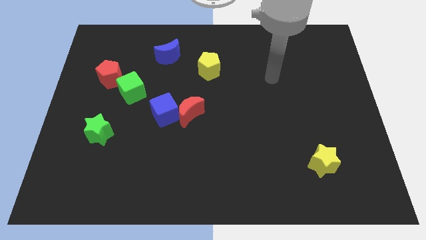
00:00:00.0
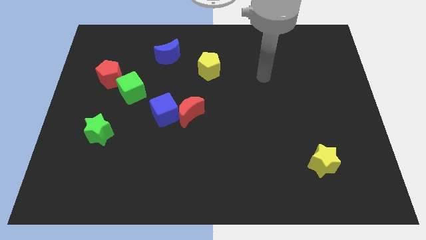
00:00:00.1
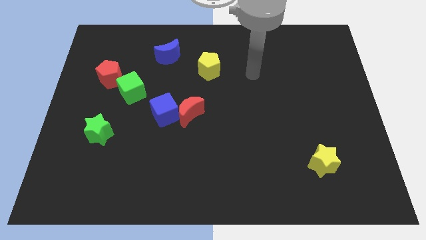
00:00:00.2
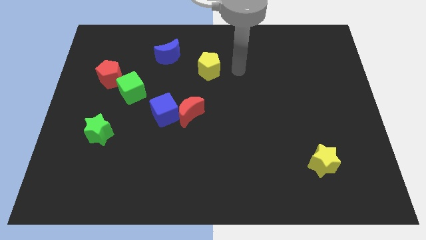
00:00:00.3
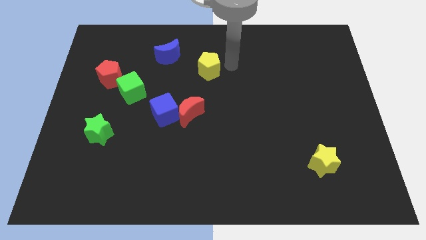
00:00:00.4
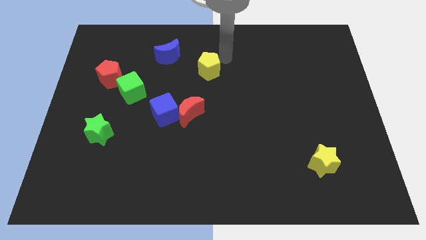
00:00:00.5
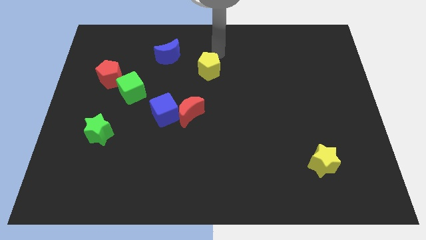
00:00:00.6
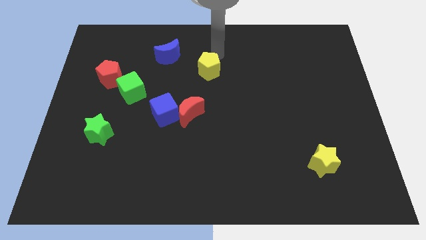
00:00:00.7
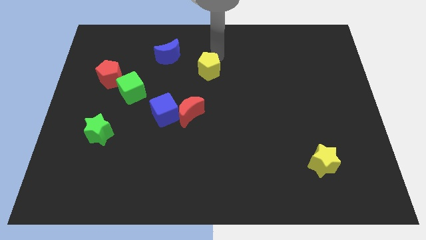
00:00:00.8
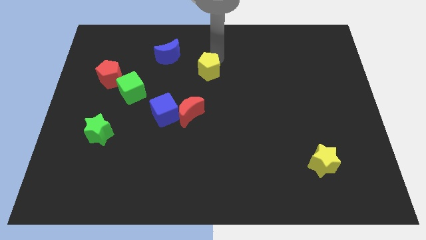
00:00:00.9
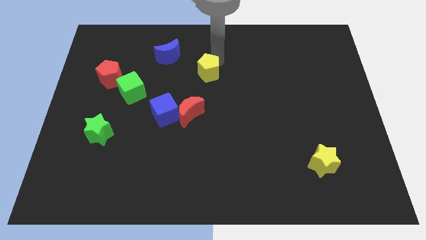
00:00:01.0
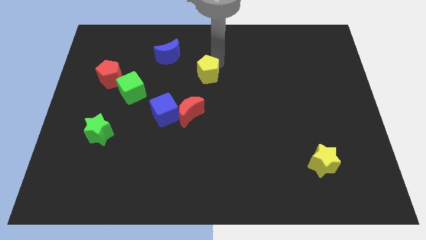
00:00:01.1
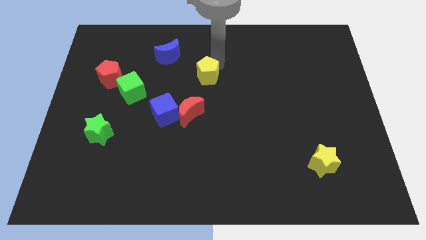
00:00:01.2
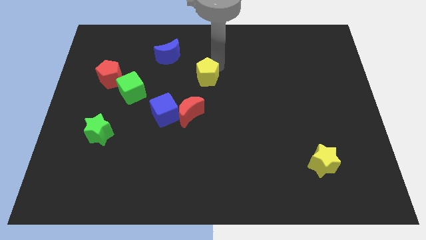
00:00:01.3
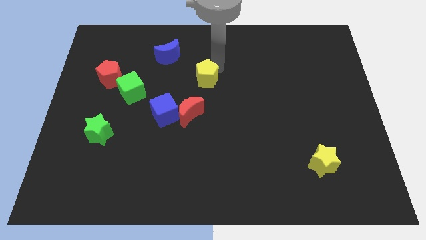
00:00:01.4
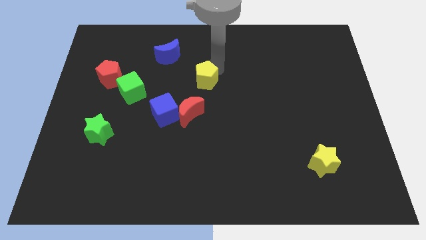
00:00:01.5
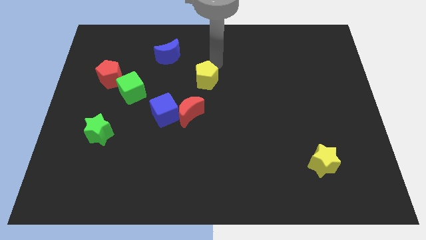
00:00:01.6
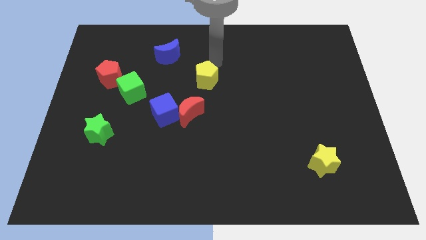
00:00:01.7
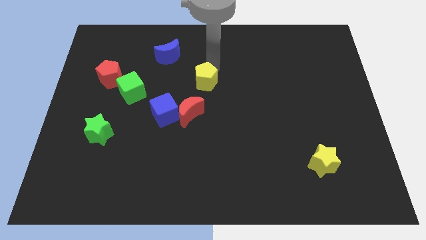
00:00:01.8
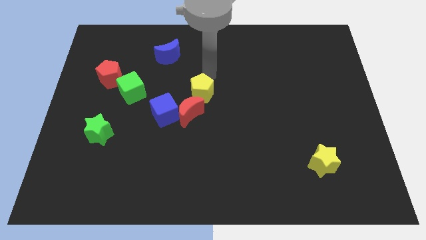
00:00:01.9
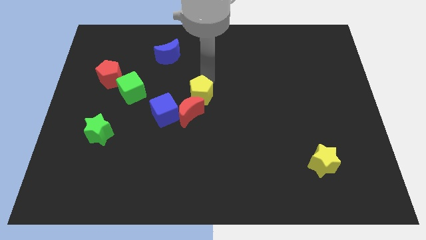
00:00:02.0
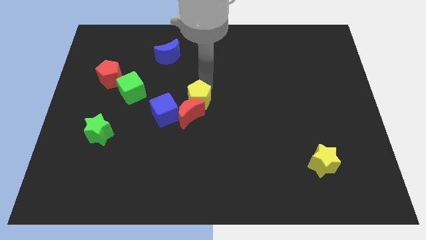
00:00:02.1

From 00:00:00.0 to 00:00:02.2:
move the yellow pentagon to the red moon

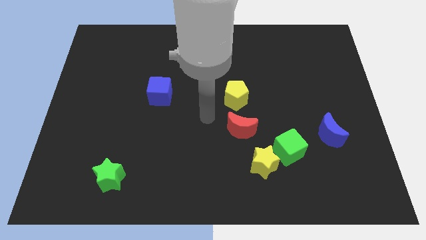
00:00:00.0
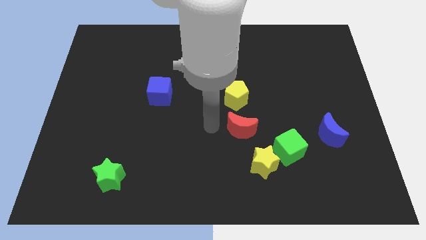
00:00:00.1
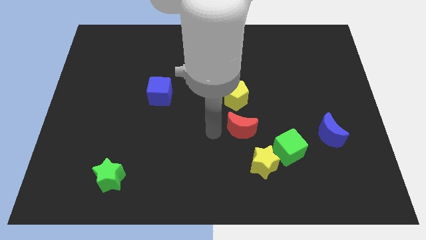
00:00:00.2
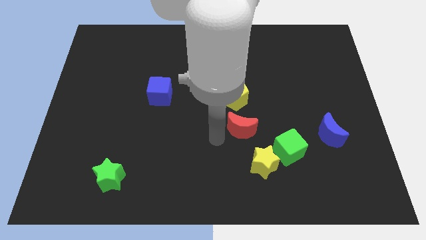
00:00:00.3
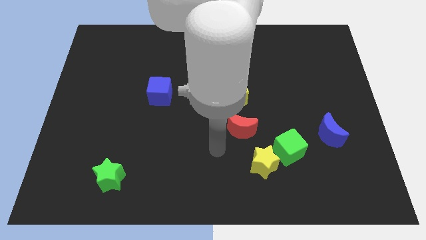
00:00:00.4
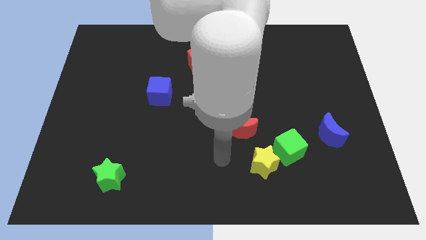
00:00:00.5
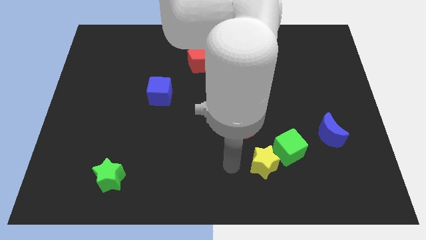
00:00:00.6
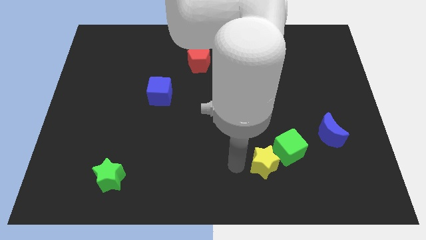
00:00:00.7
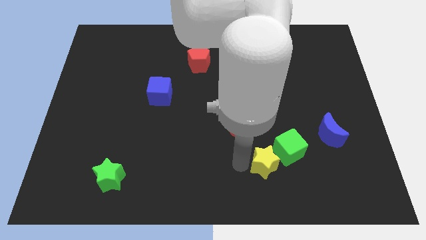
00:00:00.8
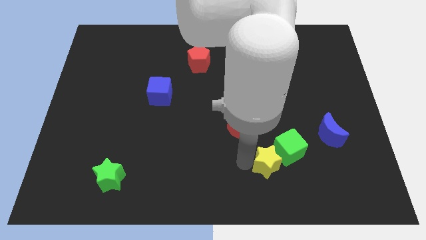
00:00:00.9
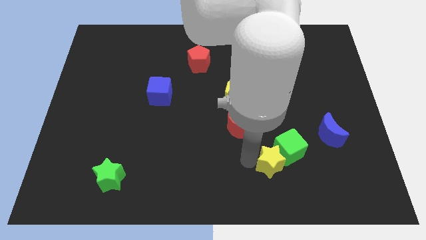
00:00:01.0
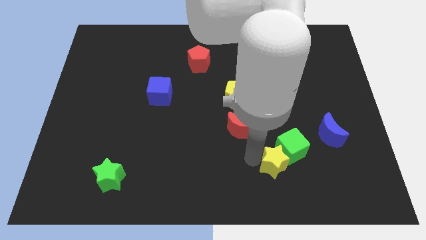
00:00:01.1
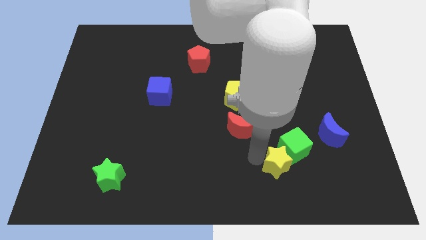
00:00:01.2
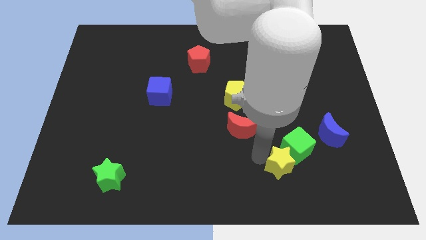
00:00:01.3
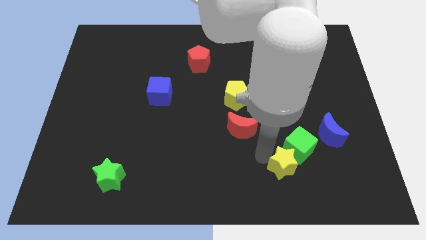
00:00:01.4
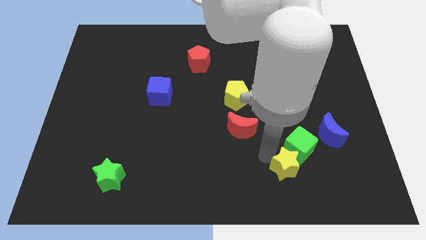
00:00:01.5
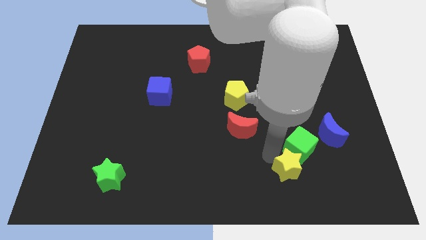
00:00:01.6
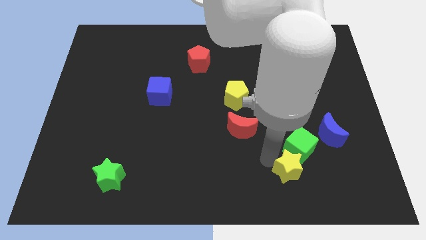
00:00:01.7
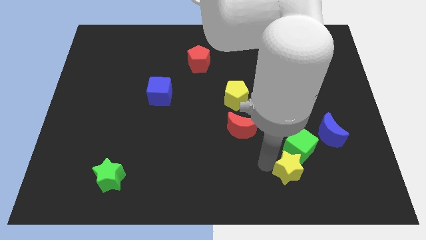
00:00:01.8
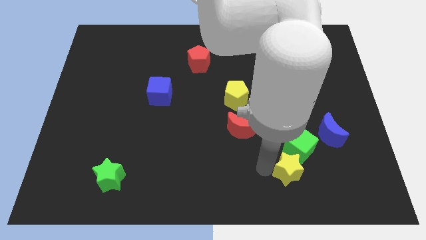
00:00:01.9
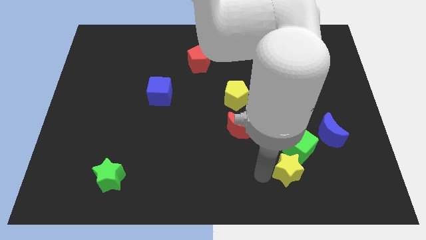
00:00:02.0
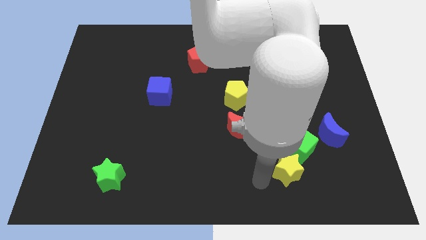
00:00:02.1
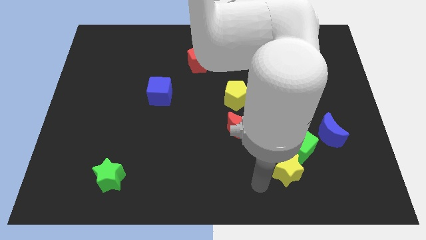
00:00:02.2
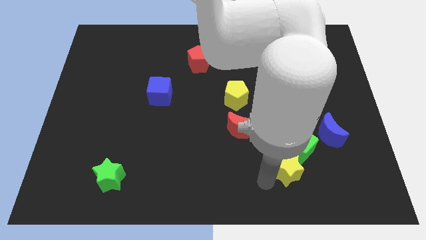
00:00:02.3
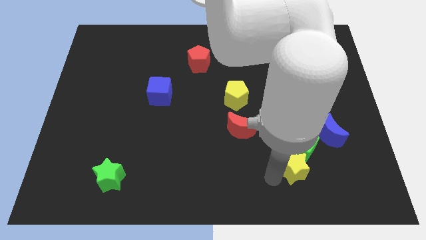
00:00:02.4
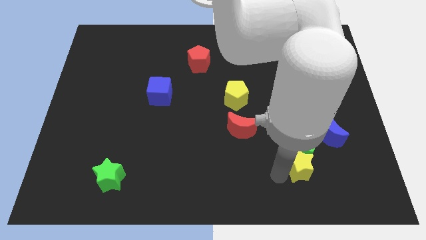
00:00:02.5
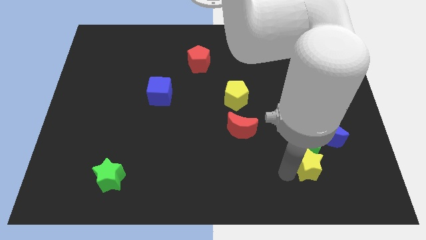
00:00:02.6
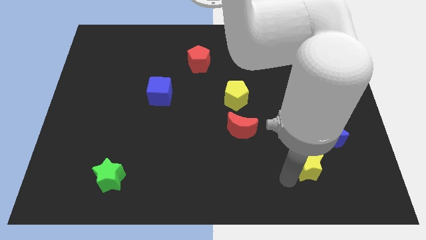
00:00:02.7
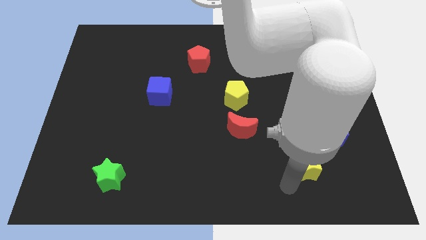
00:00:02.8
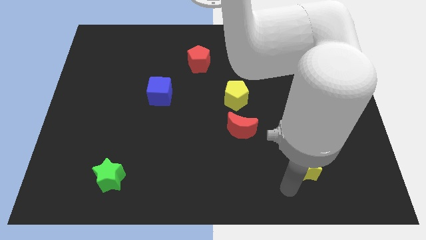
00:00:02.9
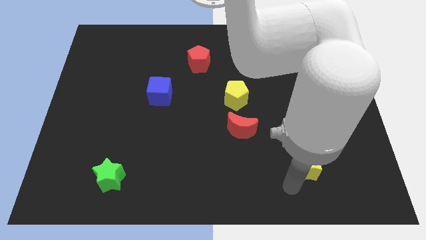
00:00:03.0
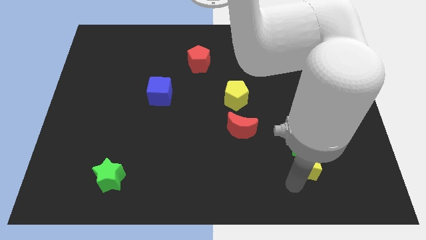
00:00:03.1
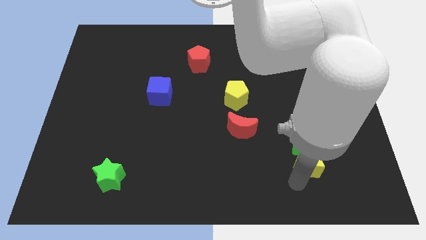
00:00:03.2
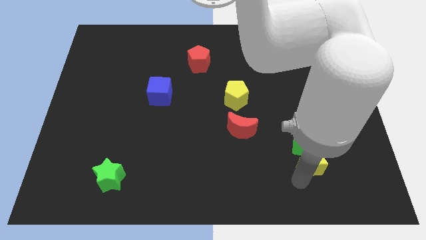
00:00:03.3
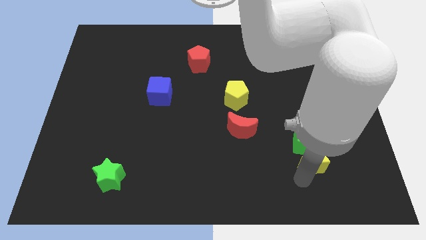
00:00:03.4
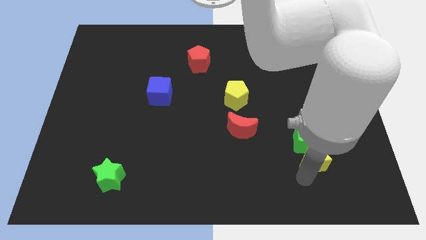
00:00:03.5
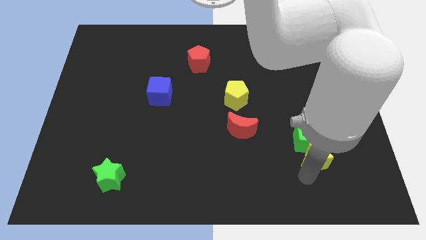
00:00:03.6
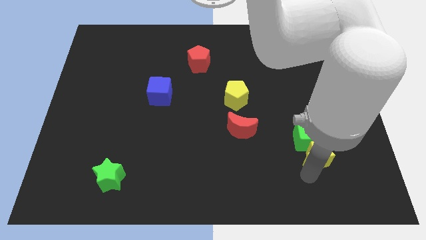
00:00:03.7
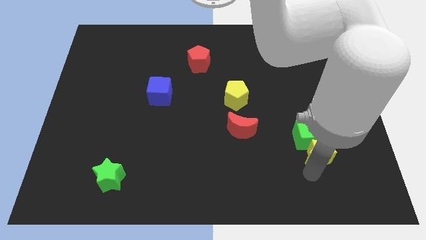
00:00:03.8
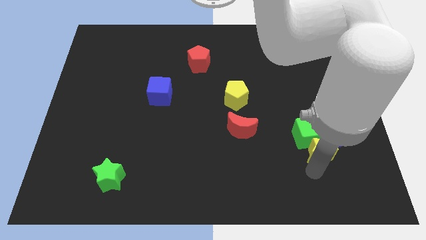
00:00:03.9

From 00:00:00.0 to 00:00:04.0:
push the yellow star to the blue moon

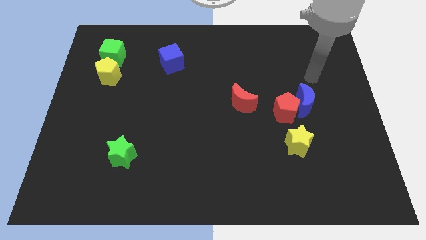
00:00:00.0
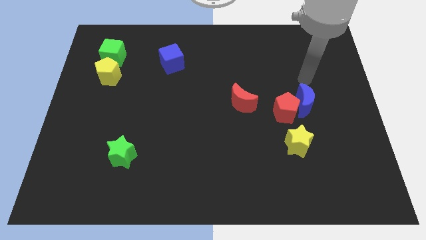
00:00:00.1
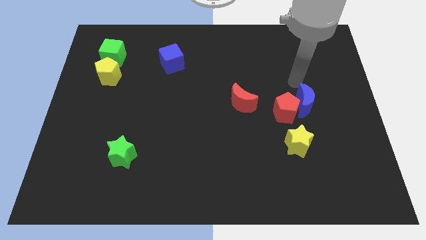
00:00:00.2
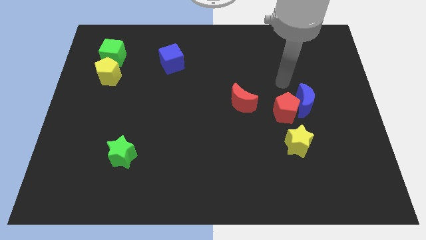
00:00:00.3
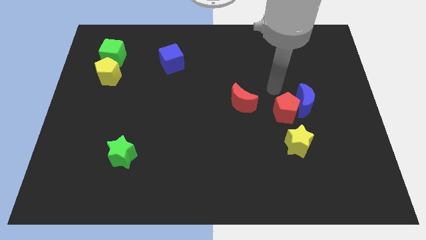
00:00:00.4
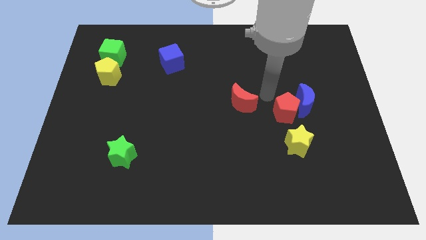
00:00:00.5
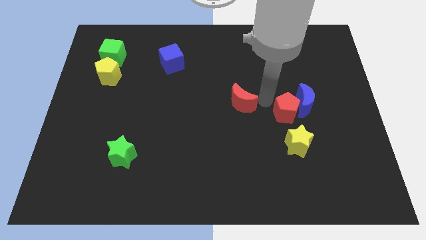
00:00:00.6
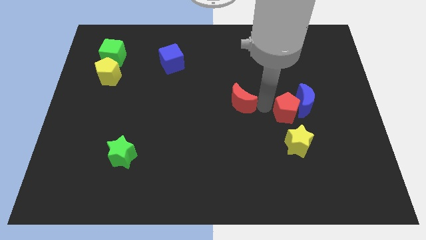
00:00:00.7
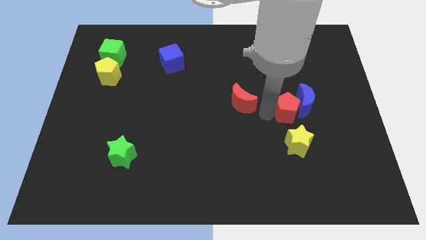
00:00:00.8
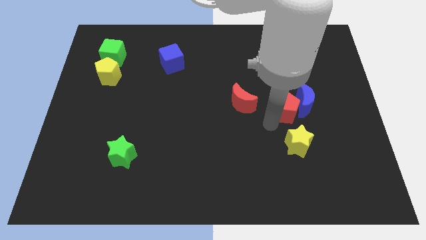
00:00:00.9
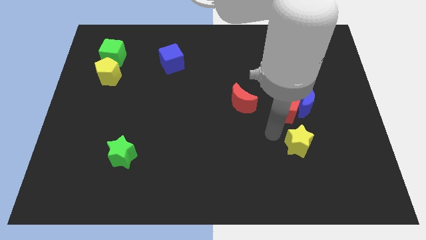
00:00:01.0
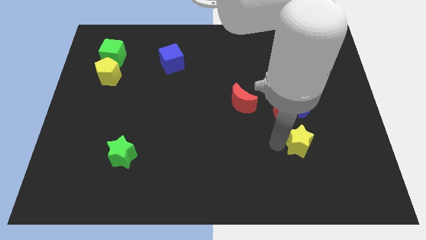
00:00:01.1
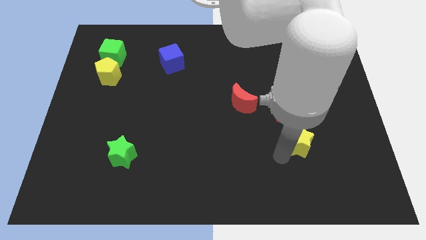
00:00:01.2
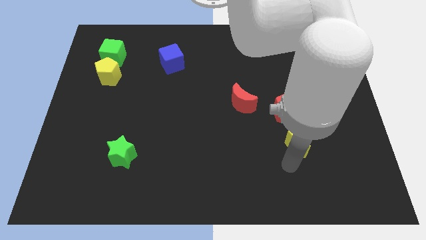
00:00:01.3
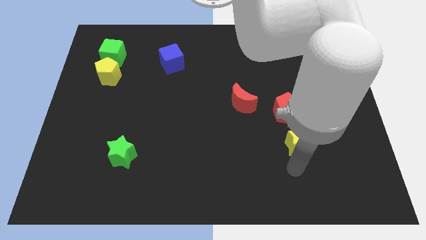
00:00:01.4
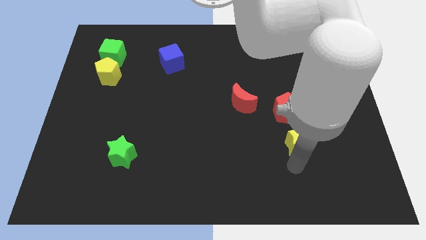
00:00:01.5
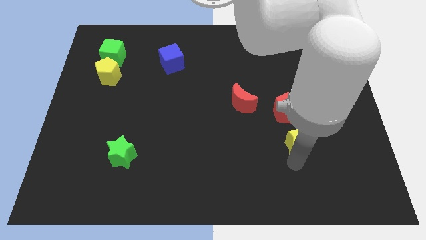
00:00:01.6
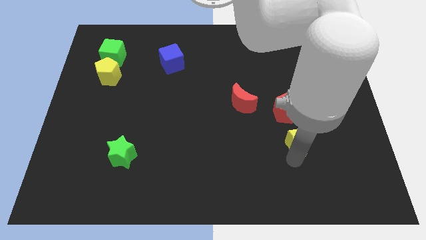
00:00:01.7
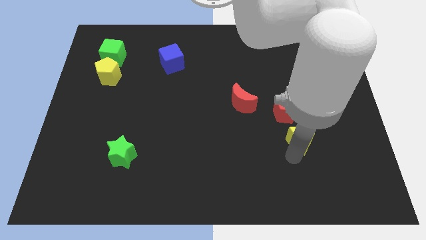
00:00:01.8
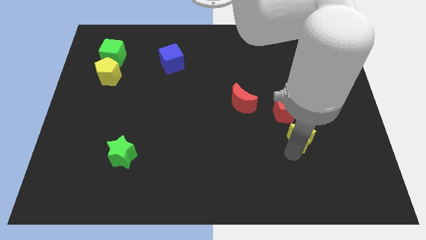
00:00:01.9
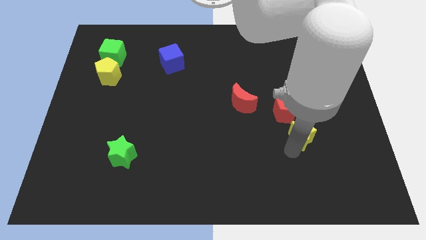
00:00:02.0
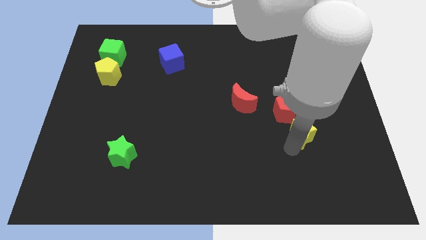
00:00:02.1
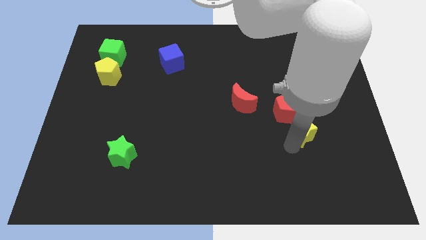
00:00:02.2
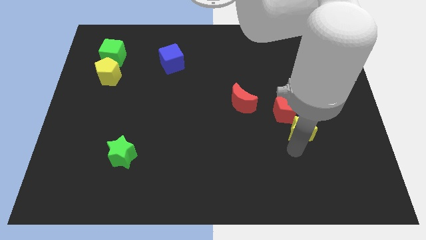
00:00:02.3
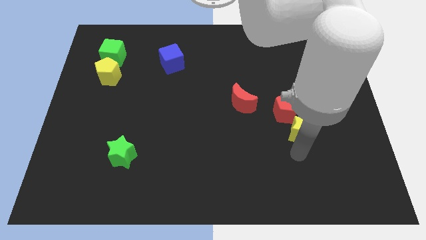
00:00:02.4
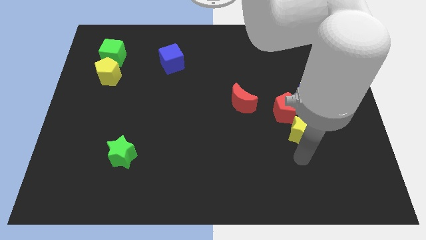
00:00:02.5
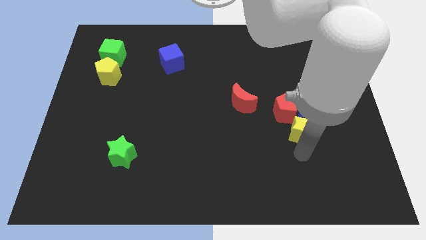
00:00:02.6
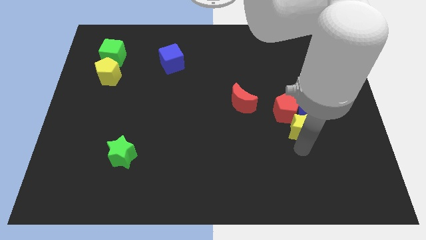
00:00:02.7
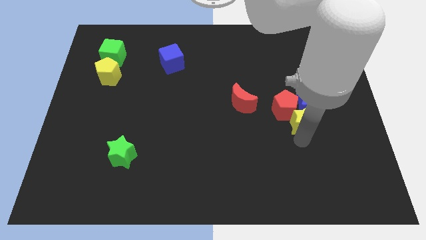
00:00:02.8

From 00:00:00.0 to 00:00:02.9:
move the yellow star to the blue moon
